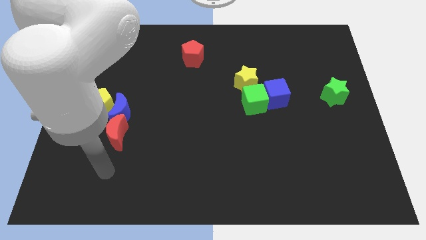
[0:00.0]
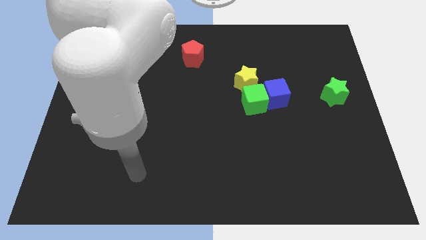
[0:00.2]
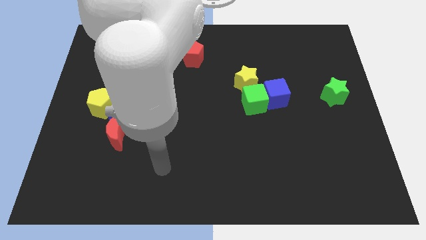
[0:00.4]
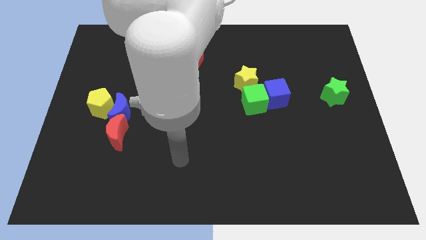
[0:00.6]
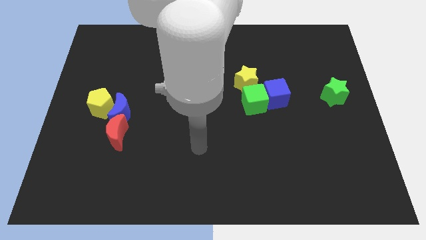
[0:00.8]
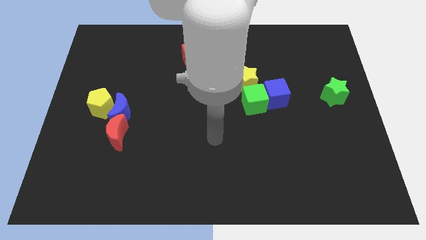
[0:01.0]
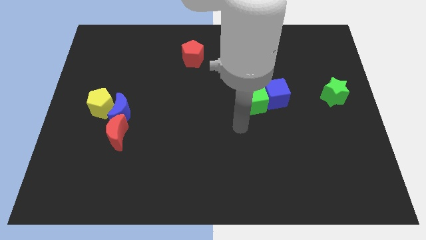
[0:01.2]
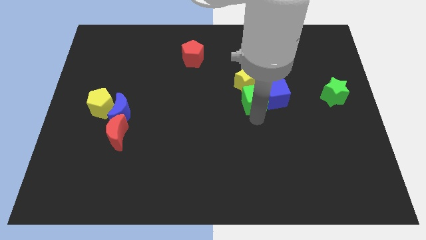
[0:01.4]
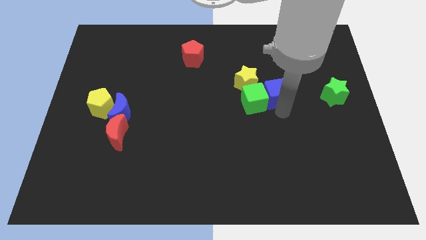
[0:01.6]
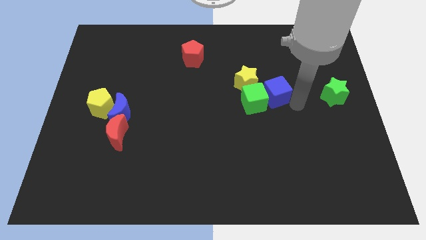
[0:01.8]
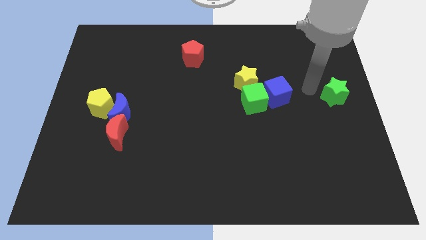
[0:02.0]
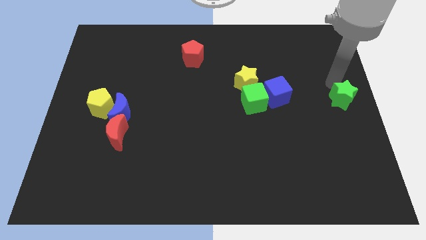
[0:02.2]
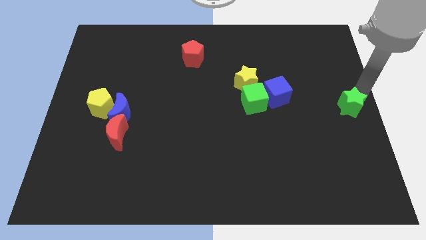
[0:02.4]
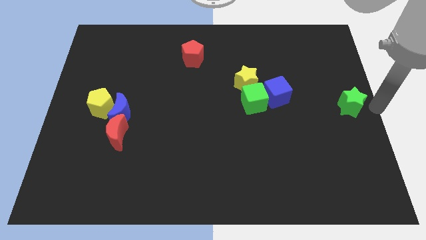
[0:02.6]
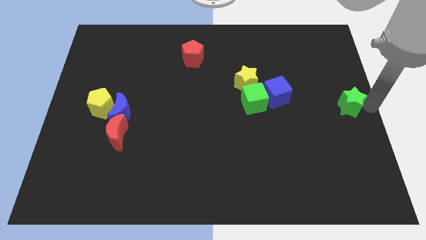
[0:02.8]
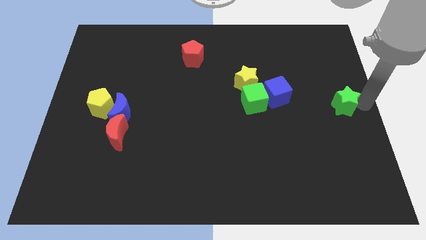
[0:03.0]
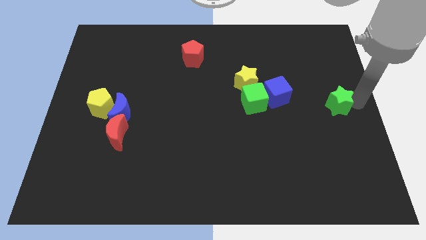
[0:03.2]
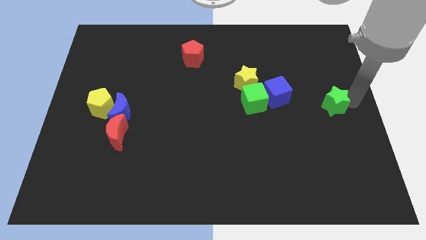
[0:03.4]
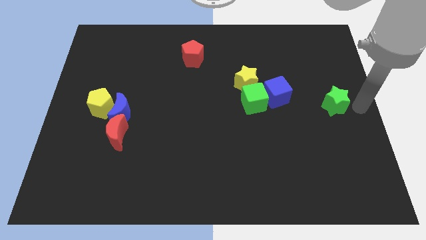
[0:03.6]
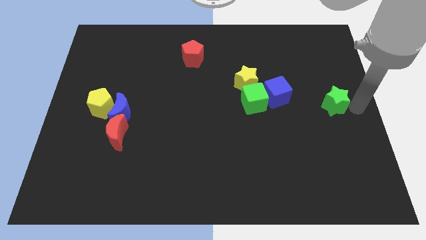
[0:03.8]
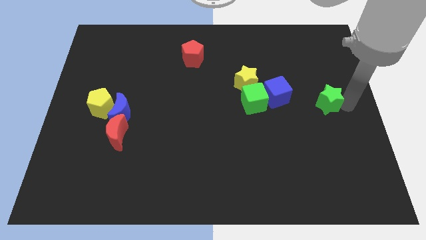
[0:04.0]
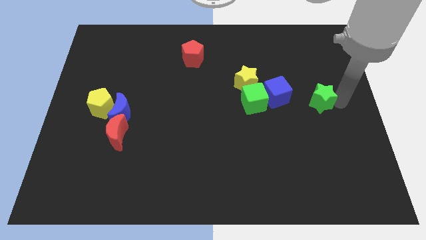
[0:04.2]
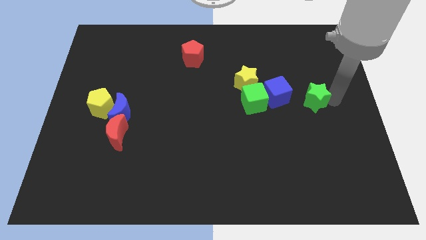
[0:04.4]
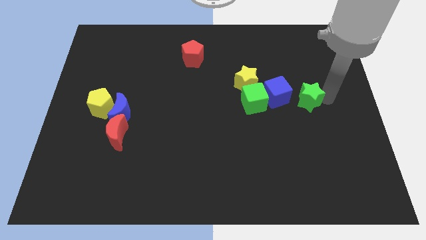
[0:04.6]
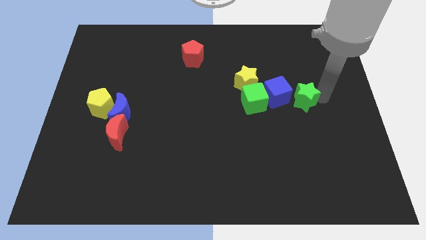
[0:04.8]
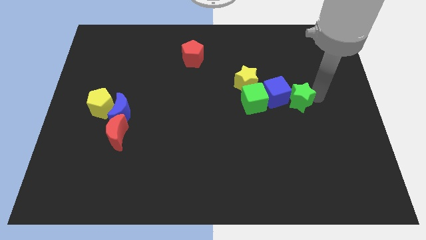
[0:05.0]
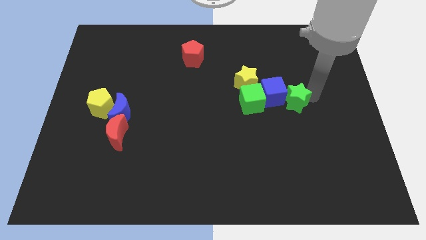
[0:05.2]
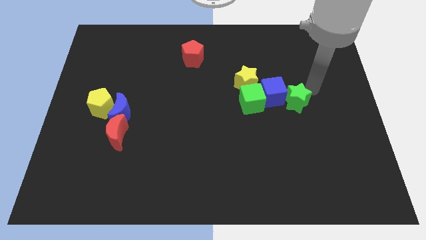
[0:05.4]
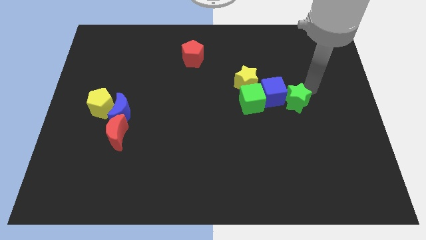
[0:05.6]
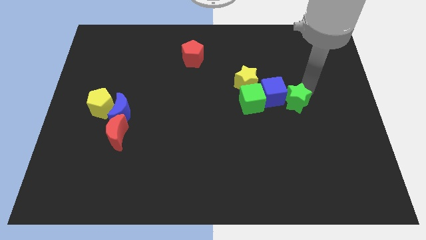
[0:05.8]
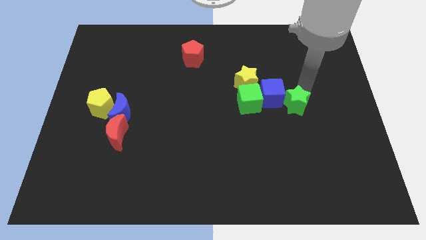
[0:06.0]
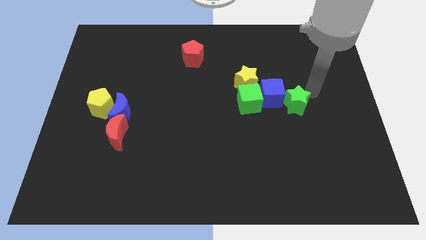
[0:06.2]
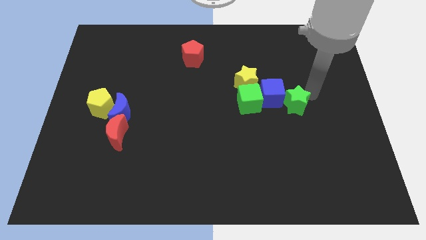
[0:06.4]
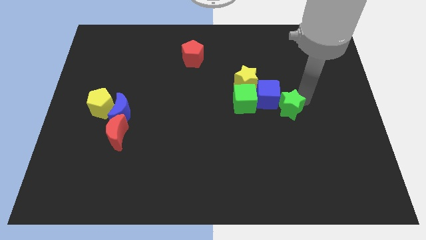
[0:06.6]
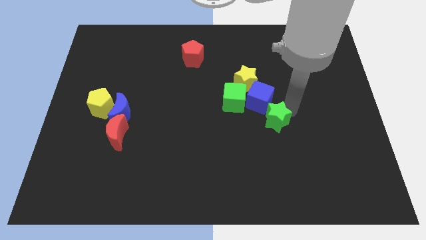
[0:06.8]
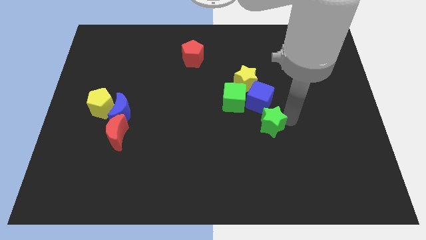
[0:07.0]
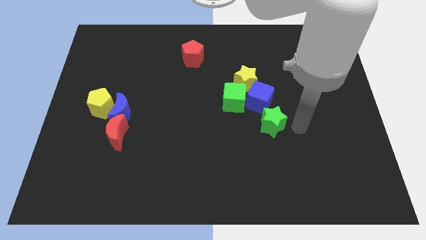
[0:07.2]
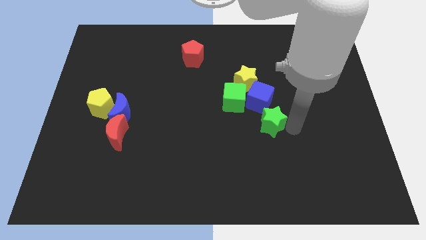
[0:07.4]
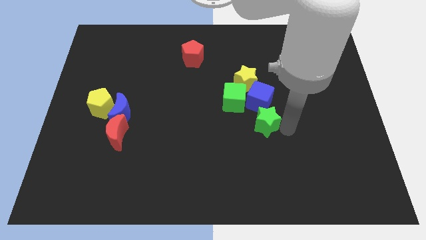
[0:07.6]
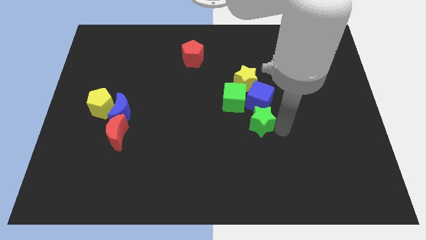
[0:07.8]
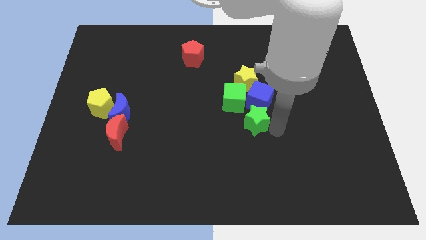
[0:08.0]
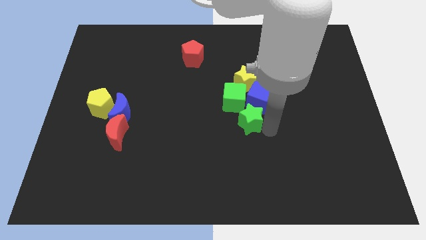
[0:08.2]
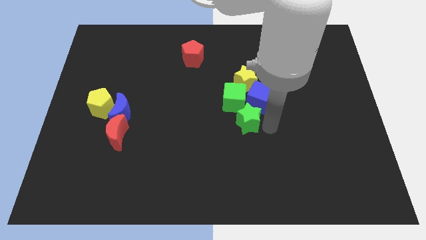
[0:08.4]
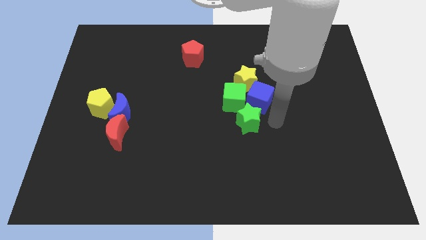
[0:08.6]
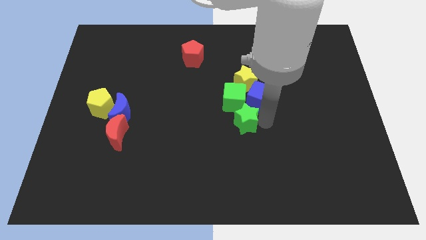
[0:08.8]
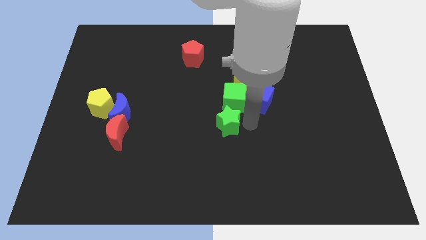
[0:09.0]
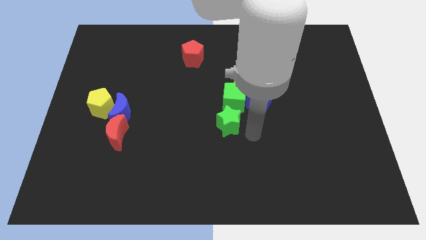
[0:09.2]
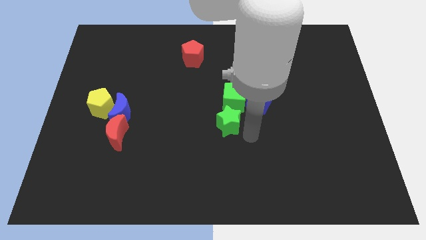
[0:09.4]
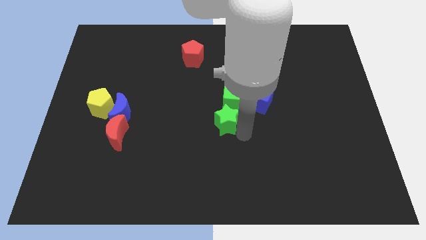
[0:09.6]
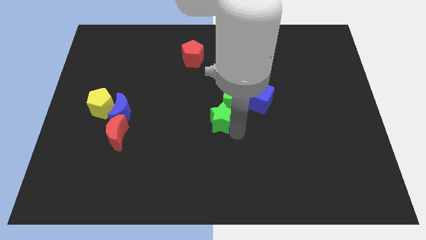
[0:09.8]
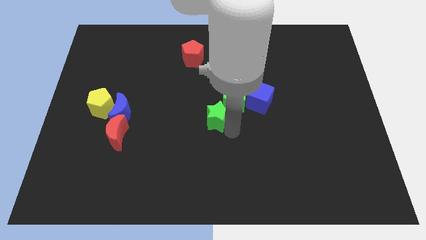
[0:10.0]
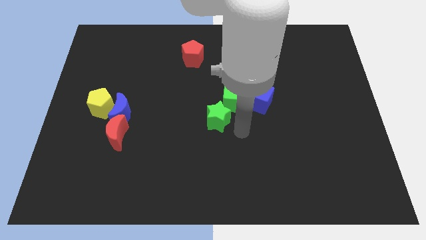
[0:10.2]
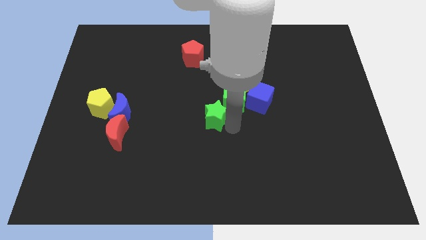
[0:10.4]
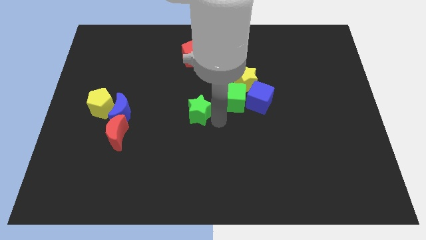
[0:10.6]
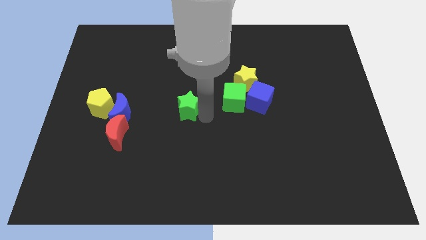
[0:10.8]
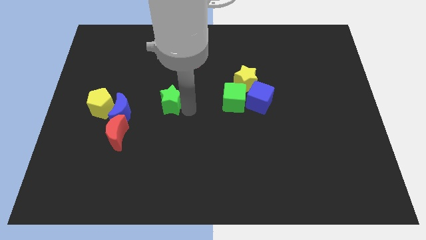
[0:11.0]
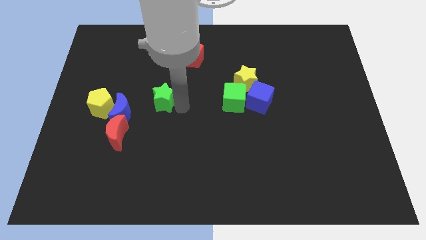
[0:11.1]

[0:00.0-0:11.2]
slide the green star diagonally up and to the right of the blue moon
